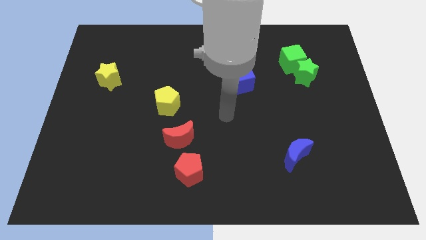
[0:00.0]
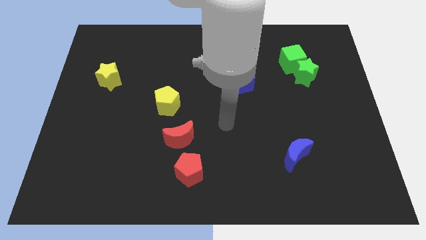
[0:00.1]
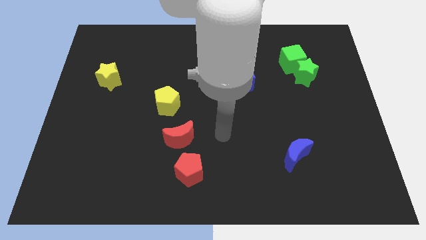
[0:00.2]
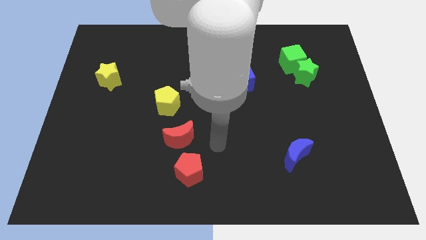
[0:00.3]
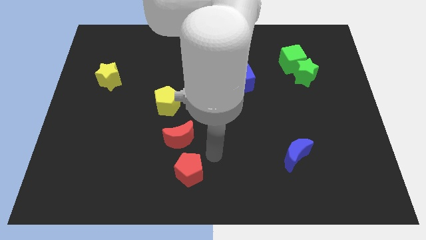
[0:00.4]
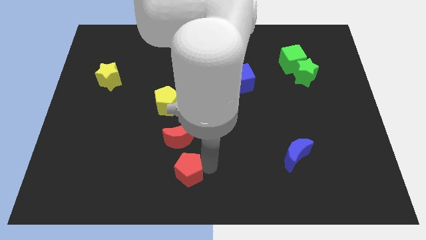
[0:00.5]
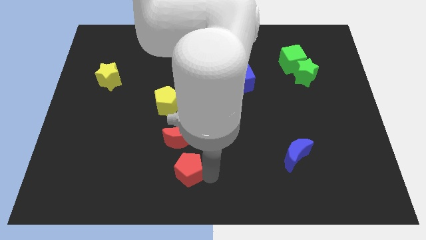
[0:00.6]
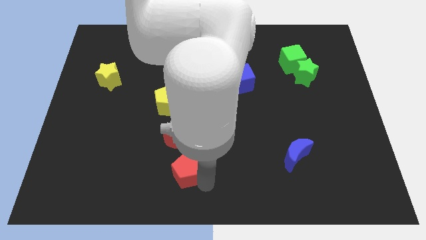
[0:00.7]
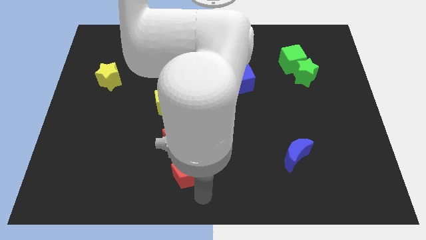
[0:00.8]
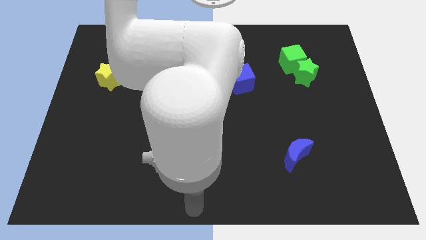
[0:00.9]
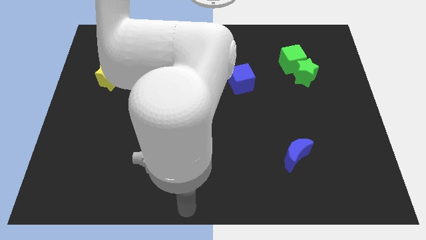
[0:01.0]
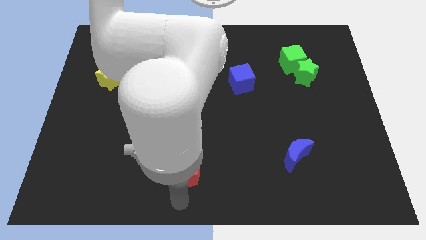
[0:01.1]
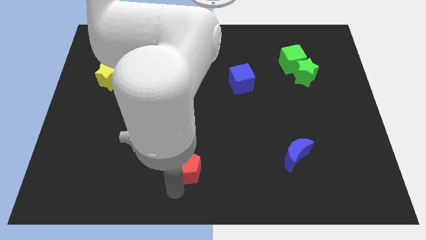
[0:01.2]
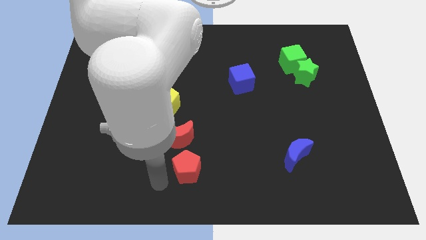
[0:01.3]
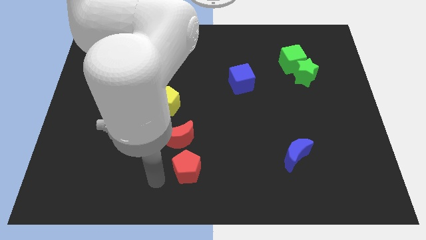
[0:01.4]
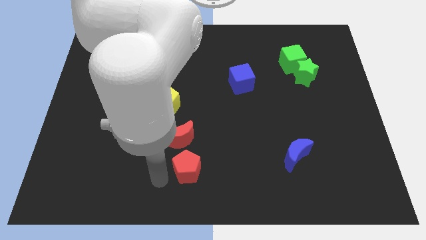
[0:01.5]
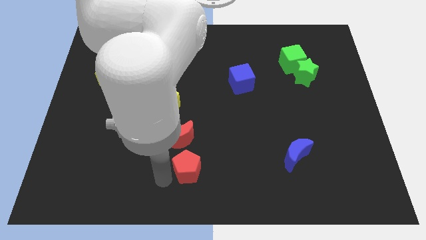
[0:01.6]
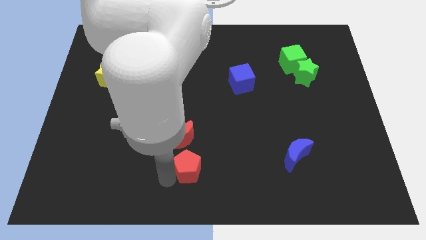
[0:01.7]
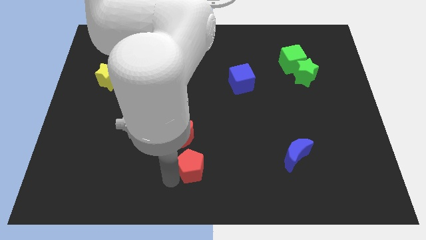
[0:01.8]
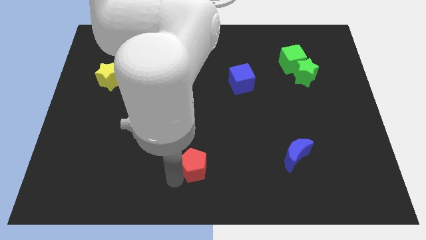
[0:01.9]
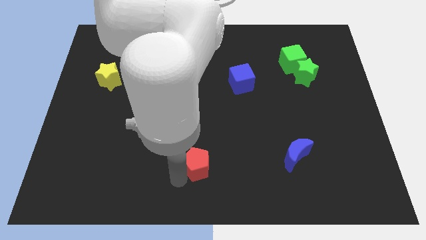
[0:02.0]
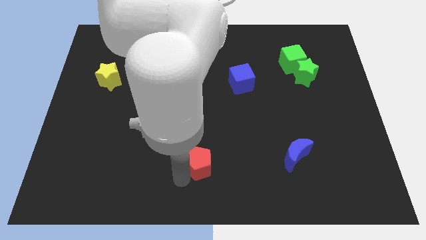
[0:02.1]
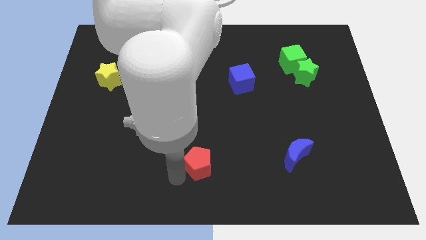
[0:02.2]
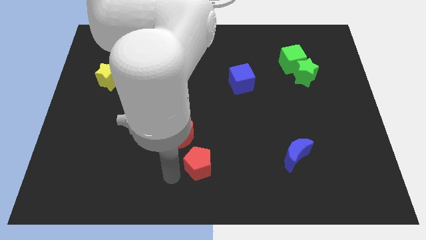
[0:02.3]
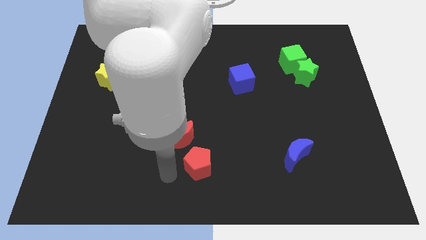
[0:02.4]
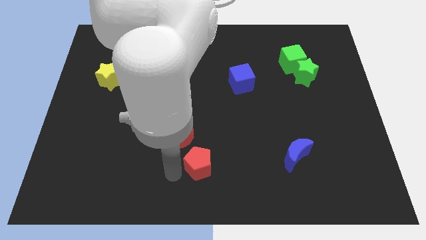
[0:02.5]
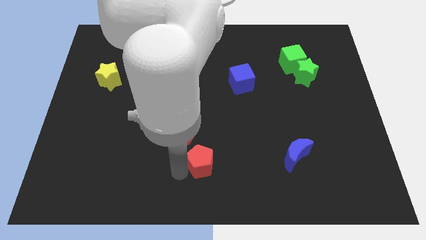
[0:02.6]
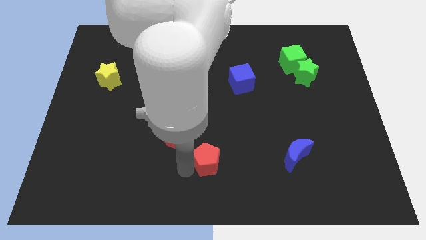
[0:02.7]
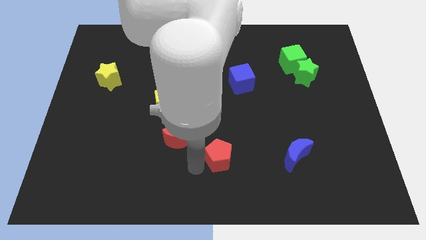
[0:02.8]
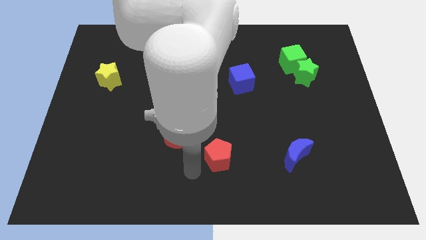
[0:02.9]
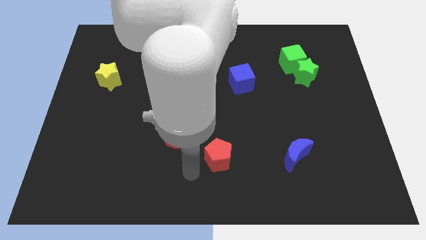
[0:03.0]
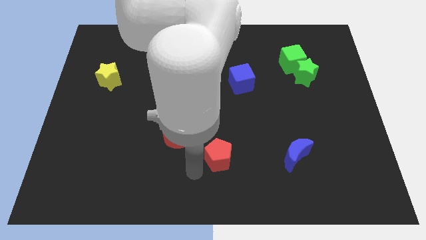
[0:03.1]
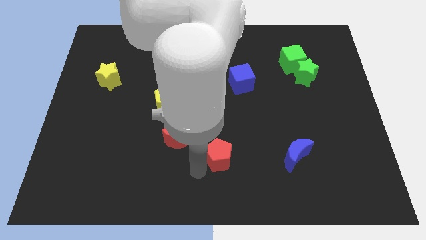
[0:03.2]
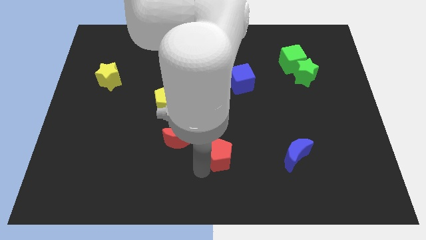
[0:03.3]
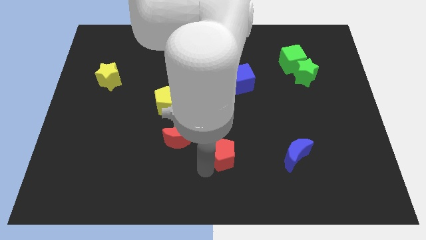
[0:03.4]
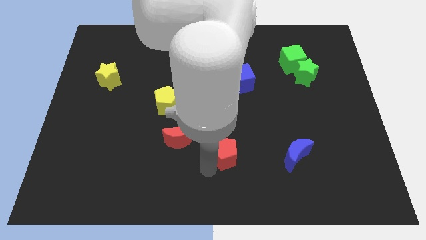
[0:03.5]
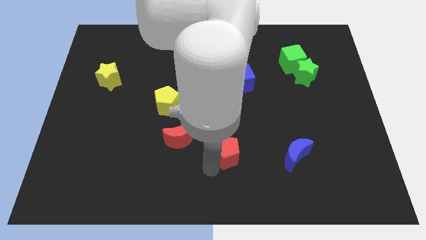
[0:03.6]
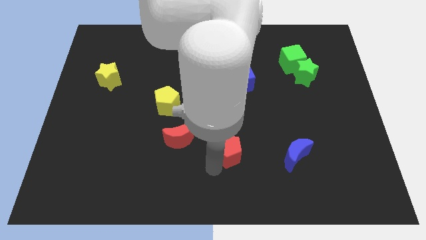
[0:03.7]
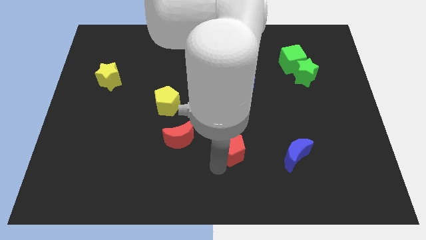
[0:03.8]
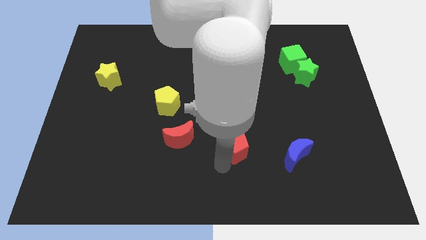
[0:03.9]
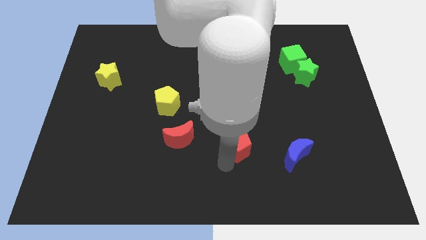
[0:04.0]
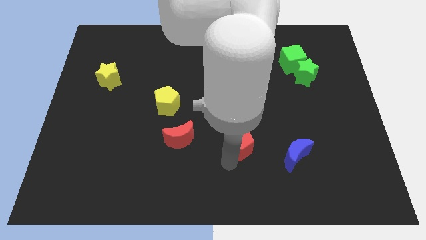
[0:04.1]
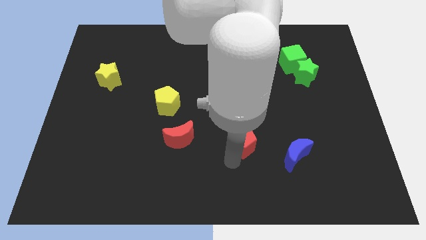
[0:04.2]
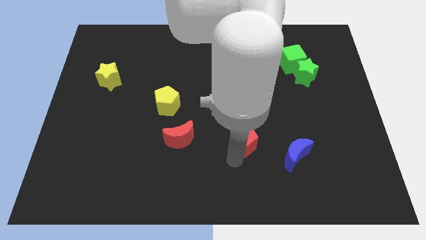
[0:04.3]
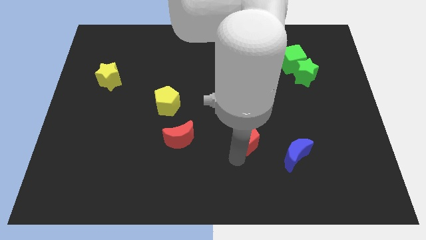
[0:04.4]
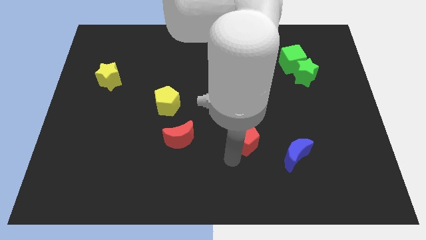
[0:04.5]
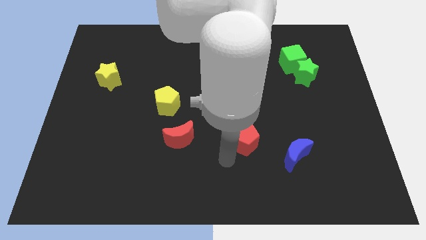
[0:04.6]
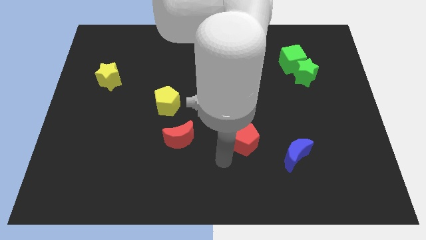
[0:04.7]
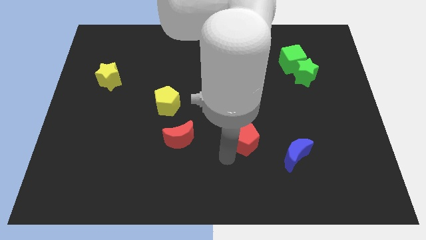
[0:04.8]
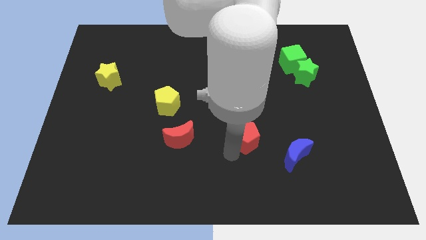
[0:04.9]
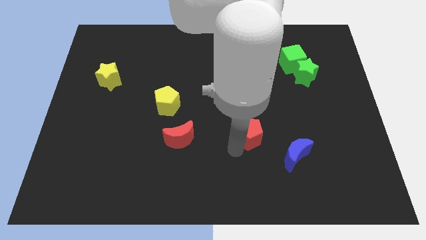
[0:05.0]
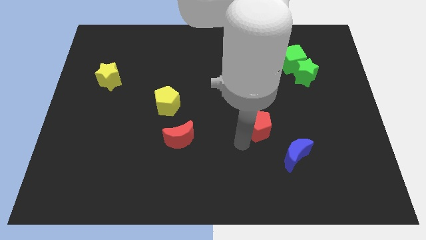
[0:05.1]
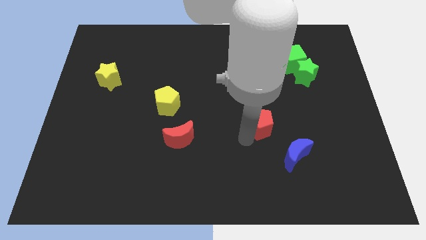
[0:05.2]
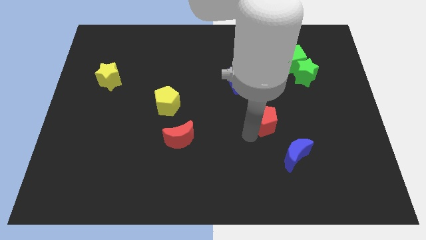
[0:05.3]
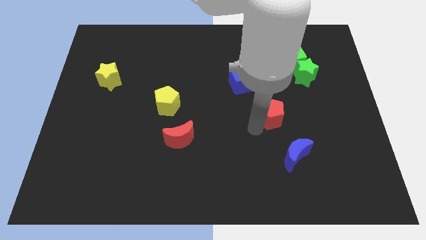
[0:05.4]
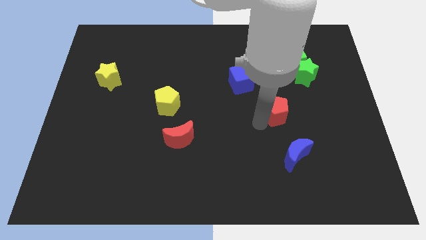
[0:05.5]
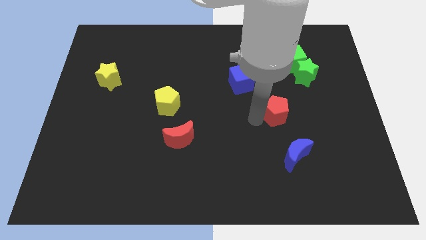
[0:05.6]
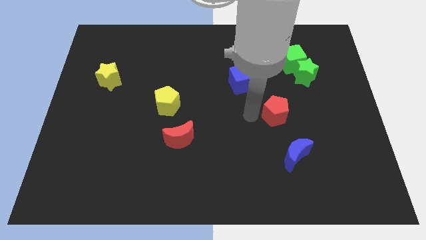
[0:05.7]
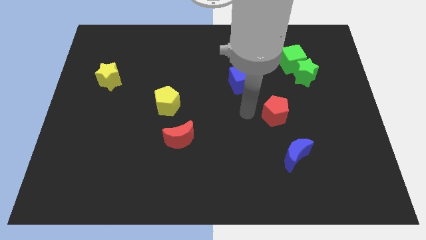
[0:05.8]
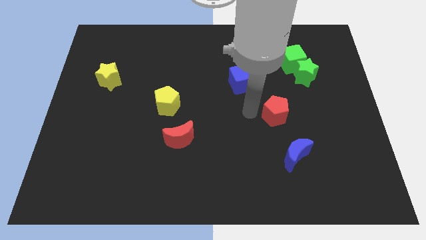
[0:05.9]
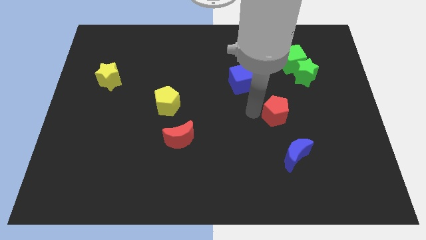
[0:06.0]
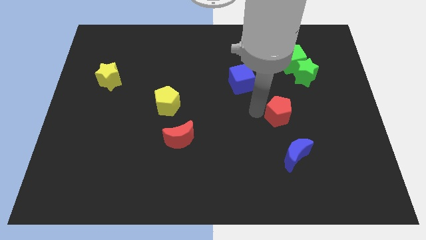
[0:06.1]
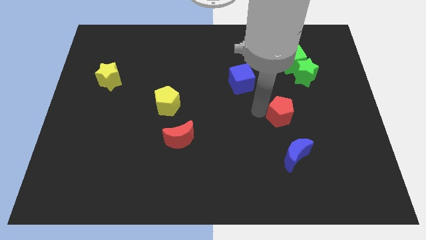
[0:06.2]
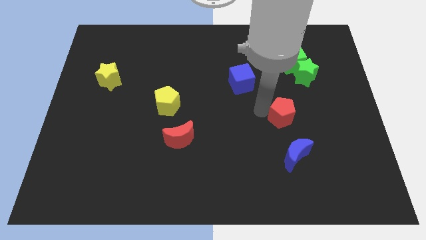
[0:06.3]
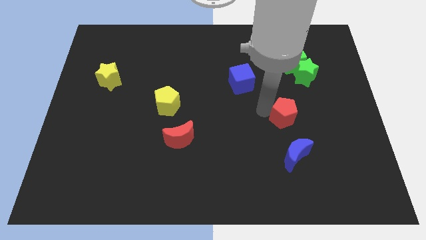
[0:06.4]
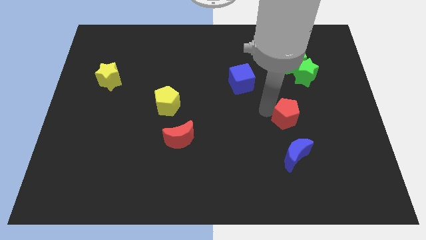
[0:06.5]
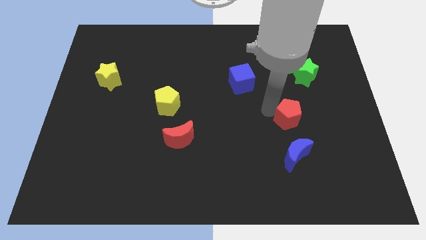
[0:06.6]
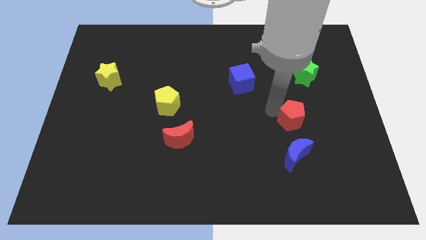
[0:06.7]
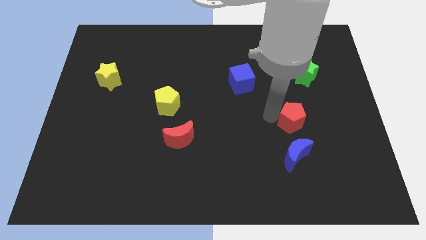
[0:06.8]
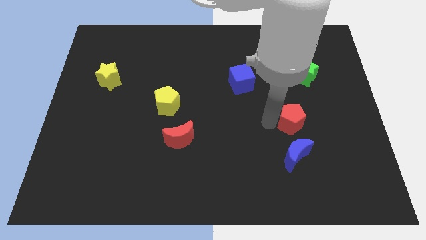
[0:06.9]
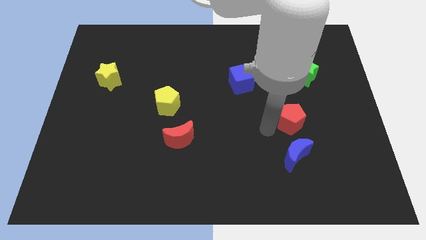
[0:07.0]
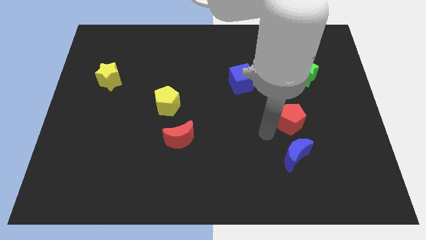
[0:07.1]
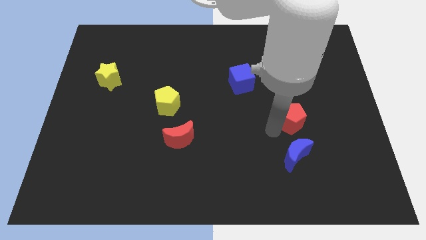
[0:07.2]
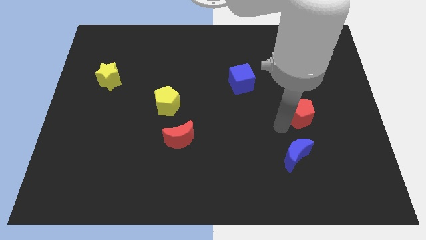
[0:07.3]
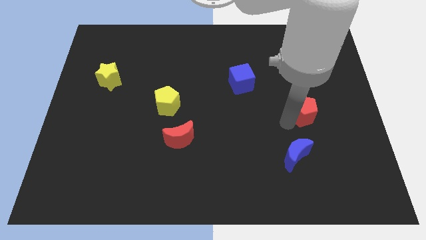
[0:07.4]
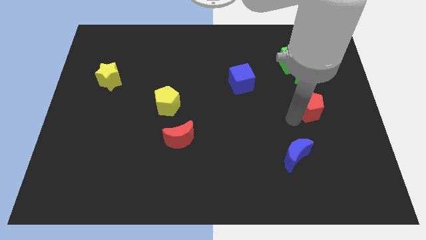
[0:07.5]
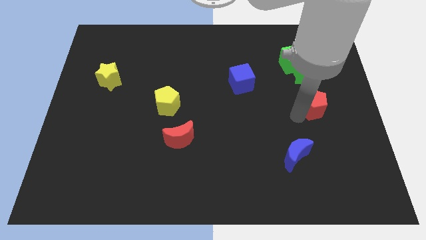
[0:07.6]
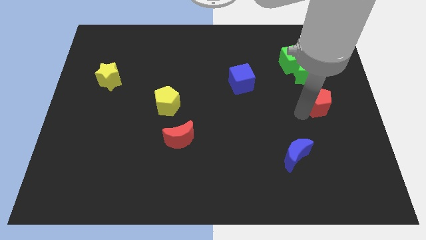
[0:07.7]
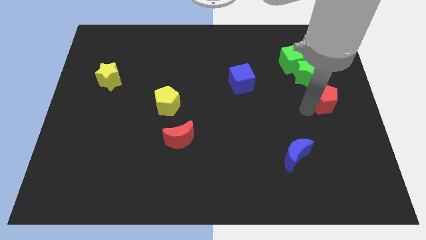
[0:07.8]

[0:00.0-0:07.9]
push the red pentagon to the right side
